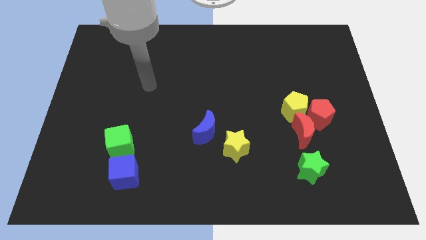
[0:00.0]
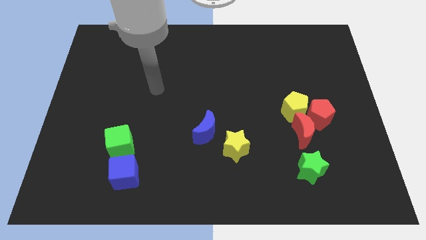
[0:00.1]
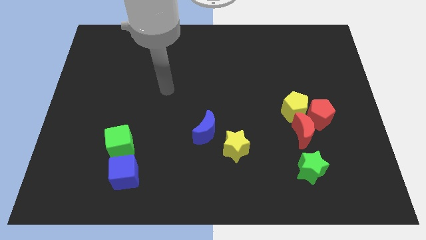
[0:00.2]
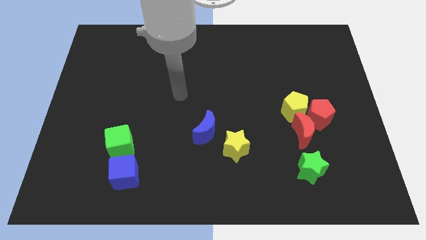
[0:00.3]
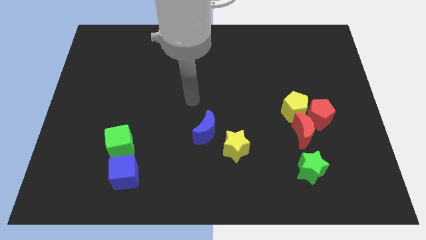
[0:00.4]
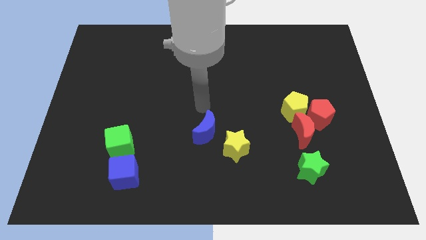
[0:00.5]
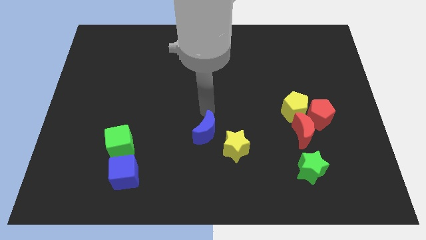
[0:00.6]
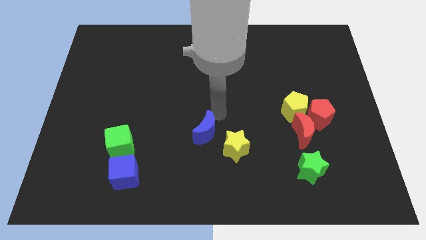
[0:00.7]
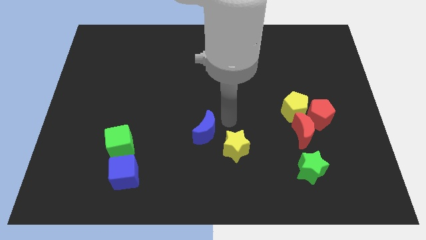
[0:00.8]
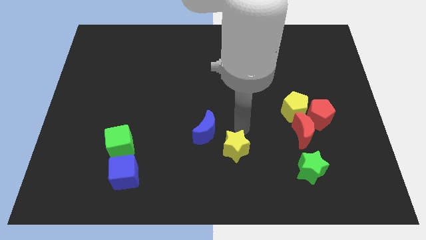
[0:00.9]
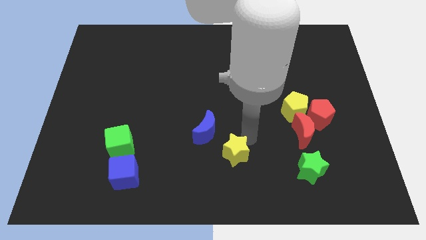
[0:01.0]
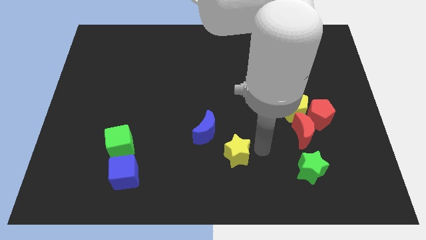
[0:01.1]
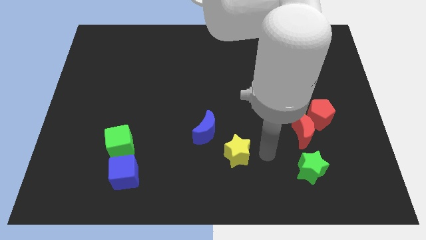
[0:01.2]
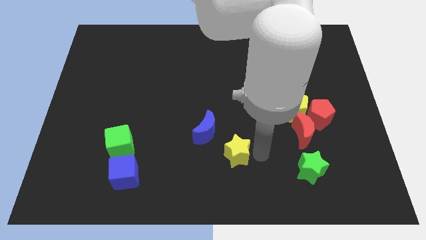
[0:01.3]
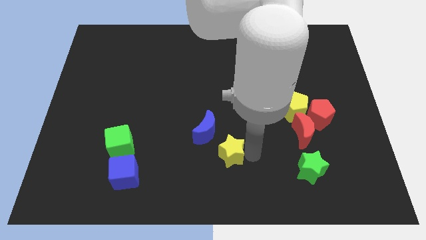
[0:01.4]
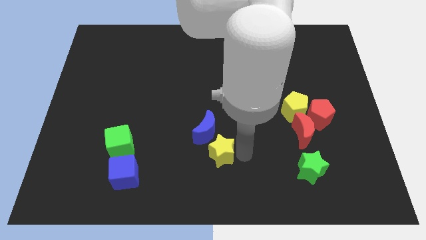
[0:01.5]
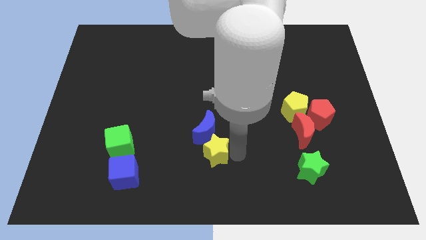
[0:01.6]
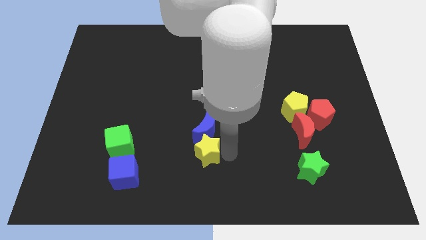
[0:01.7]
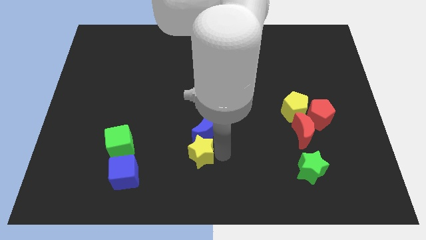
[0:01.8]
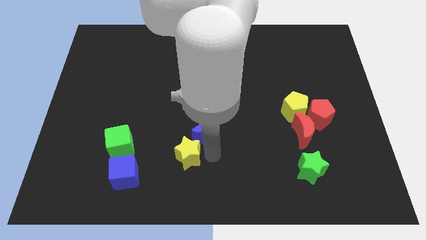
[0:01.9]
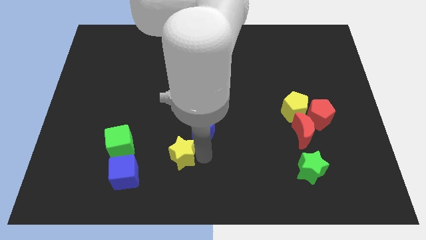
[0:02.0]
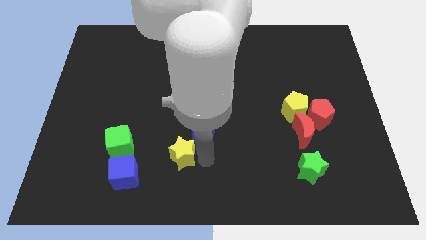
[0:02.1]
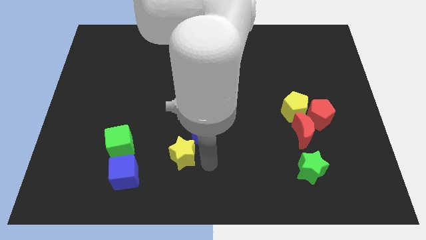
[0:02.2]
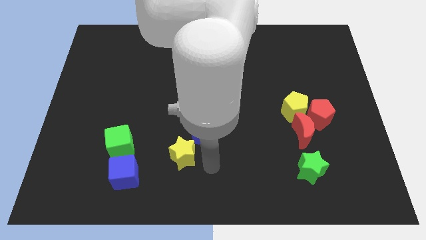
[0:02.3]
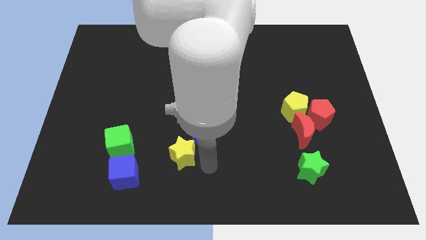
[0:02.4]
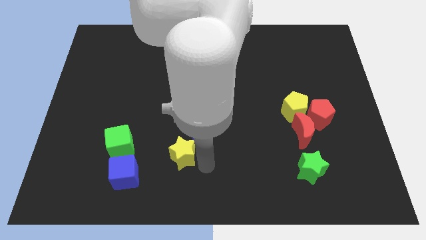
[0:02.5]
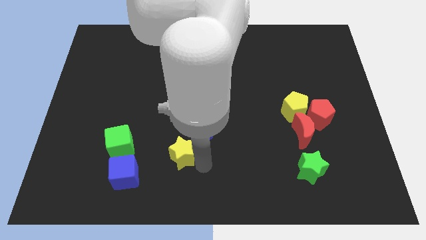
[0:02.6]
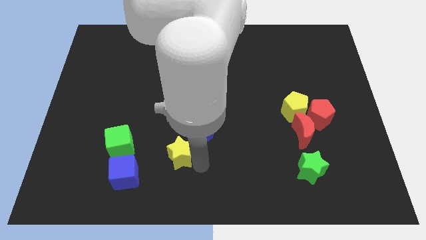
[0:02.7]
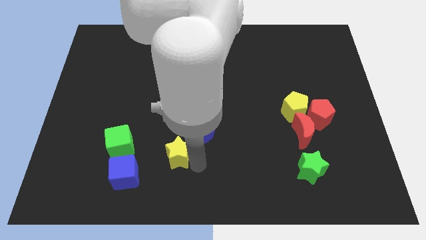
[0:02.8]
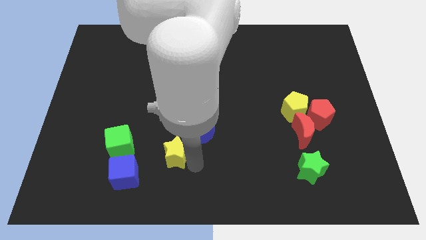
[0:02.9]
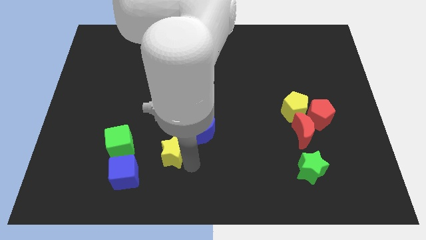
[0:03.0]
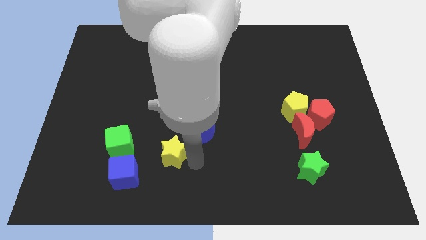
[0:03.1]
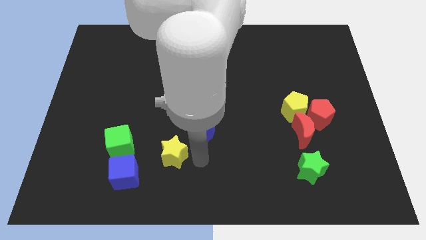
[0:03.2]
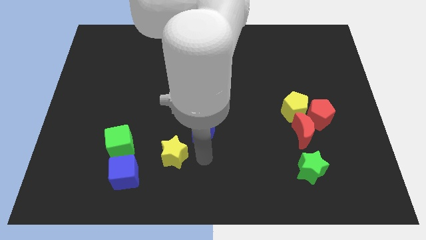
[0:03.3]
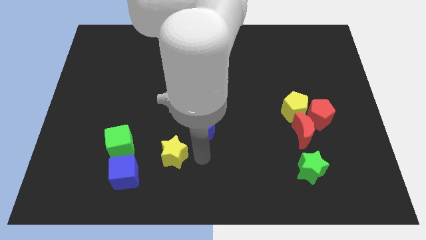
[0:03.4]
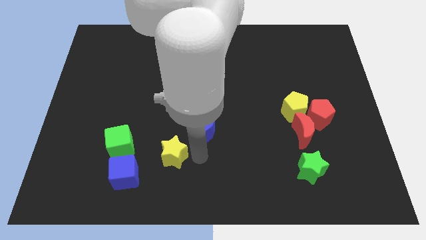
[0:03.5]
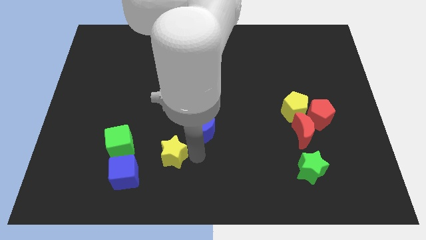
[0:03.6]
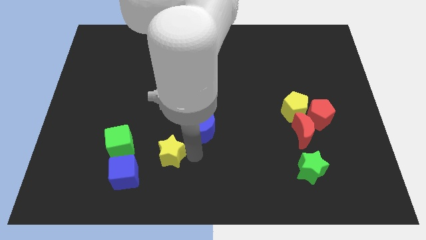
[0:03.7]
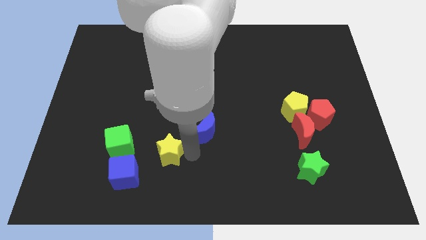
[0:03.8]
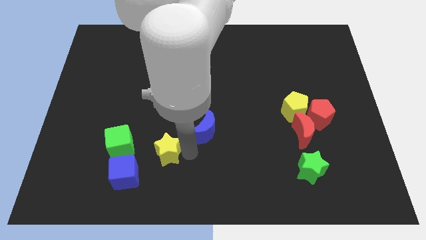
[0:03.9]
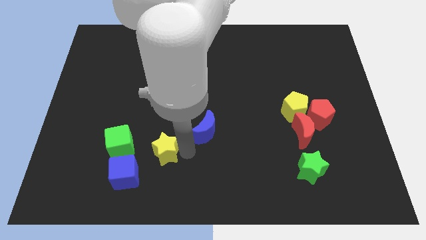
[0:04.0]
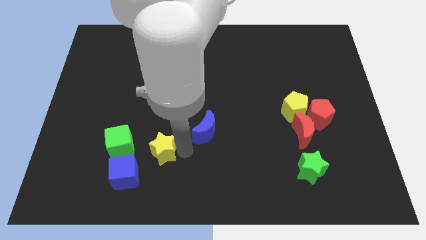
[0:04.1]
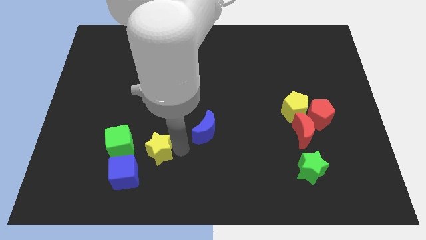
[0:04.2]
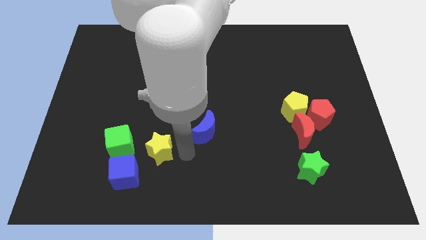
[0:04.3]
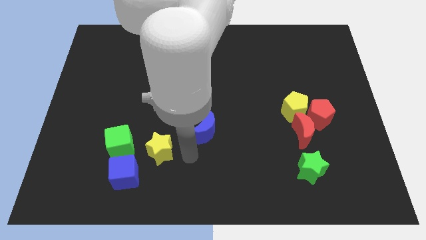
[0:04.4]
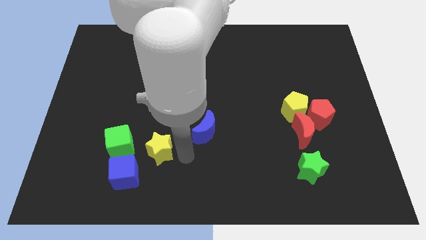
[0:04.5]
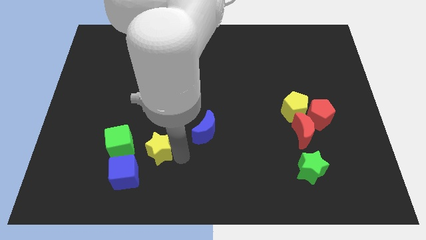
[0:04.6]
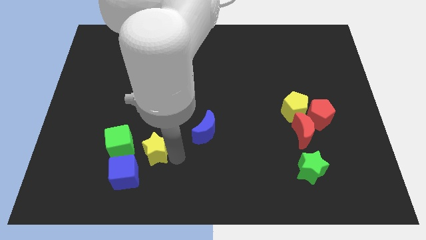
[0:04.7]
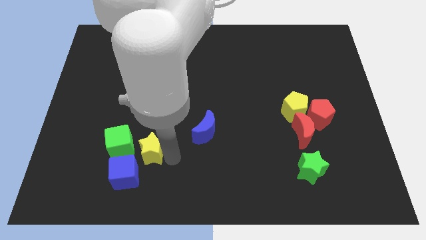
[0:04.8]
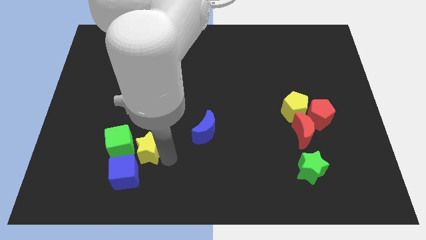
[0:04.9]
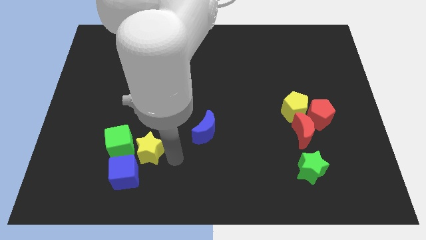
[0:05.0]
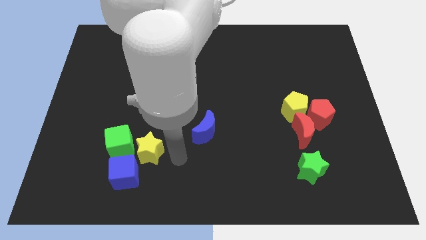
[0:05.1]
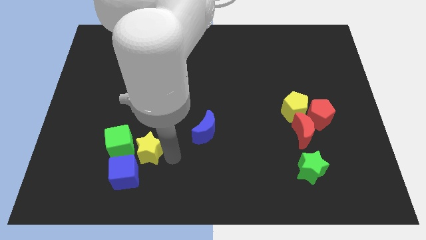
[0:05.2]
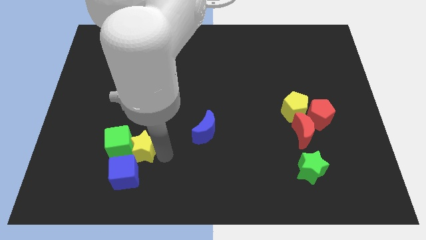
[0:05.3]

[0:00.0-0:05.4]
move the yellow star towards the green cube
